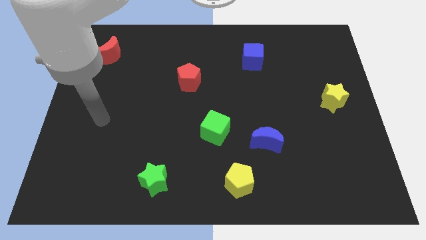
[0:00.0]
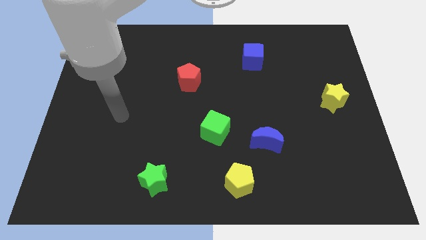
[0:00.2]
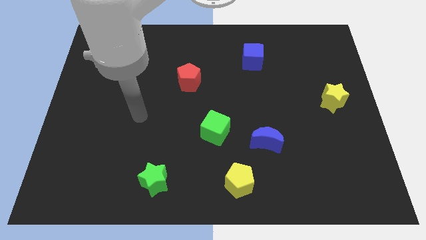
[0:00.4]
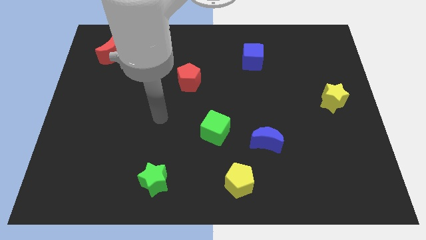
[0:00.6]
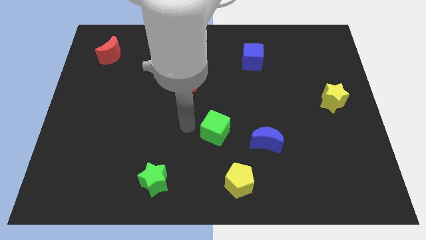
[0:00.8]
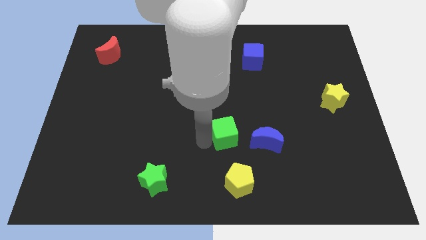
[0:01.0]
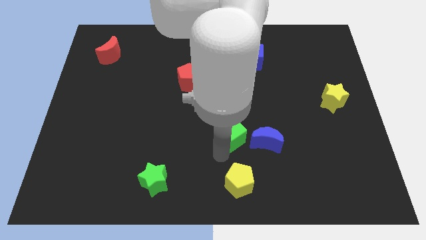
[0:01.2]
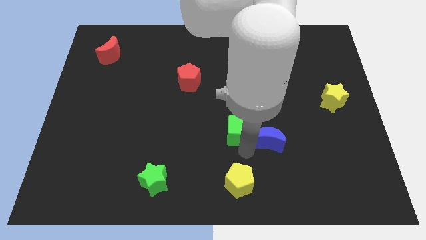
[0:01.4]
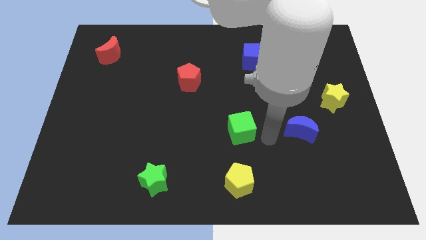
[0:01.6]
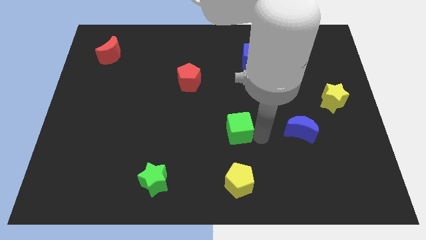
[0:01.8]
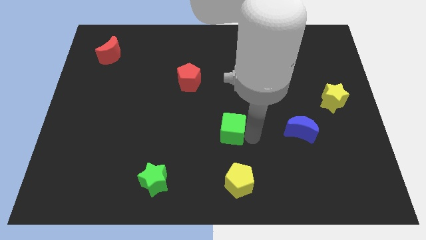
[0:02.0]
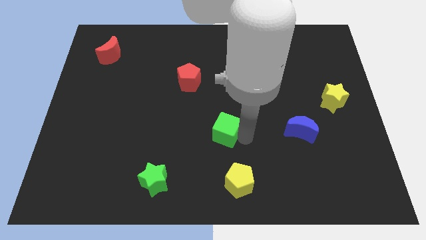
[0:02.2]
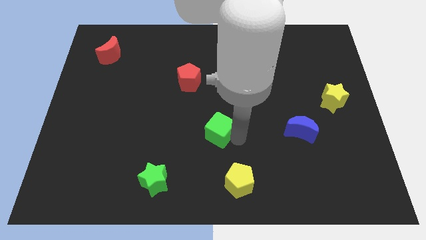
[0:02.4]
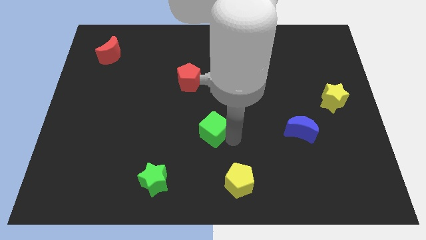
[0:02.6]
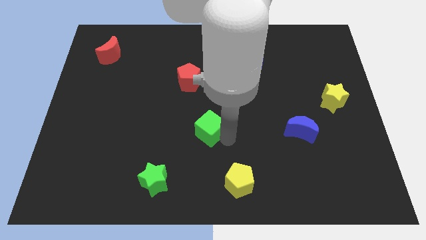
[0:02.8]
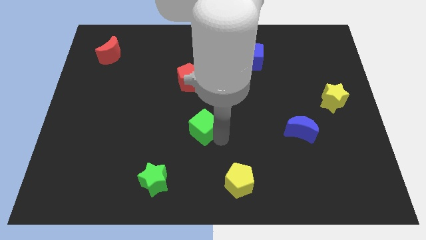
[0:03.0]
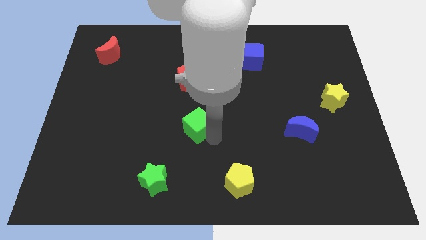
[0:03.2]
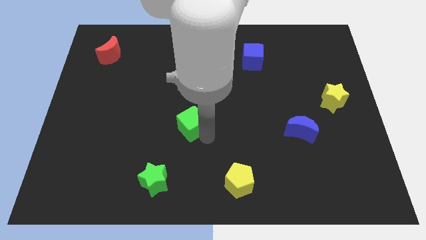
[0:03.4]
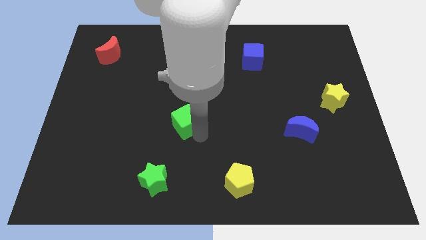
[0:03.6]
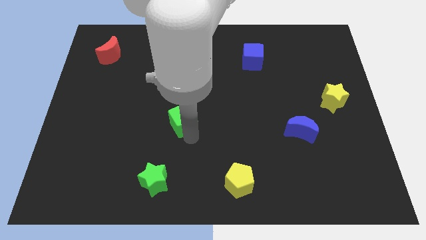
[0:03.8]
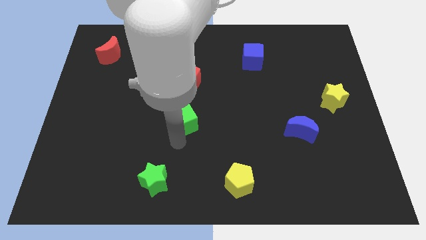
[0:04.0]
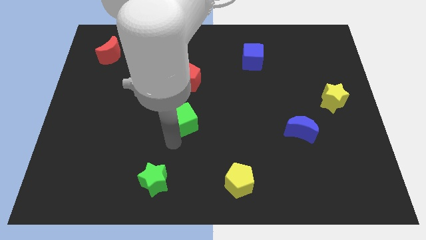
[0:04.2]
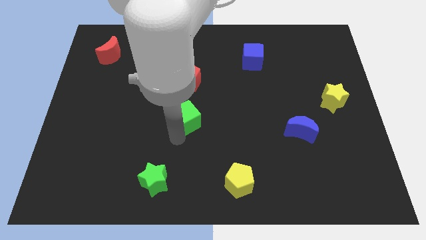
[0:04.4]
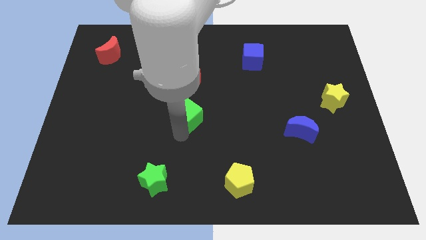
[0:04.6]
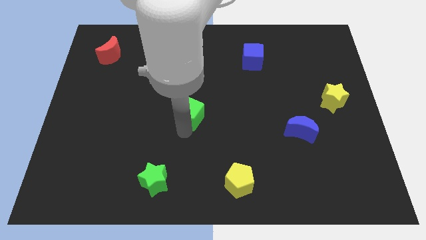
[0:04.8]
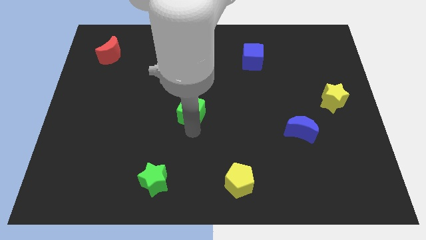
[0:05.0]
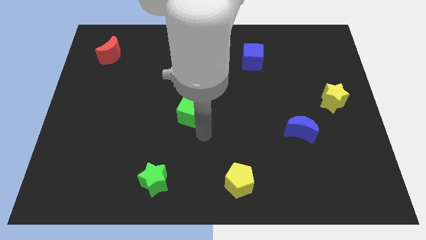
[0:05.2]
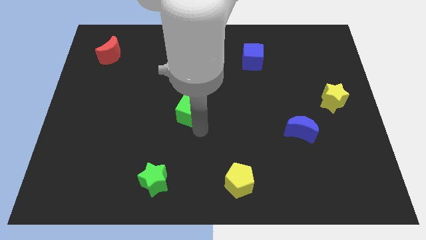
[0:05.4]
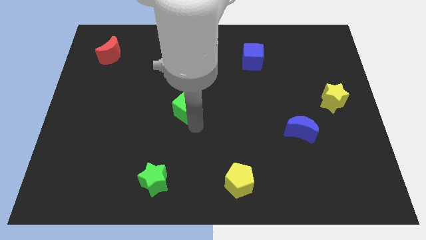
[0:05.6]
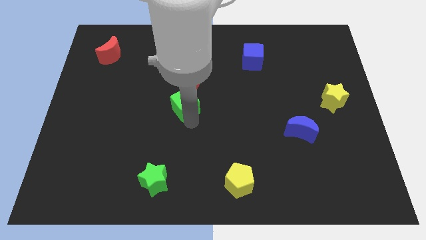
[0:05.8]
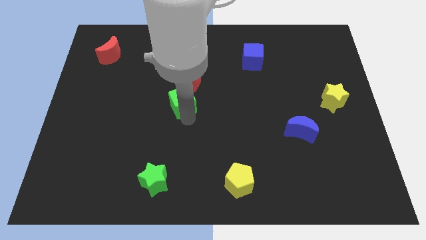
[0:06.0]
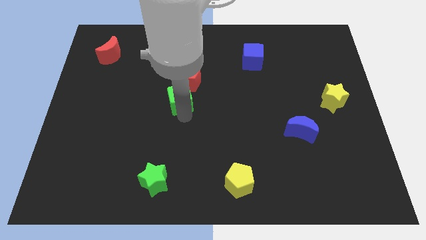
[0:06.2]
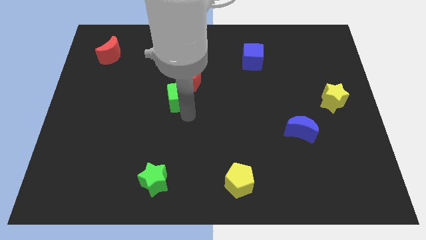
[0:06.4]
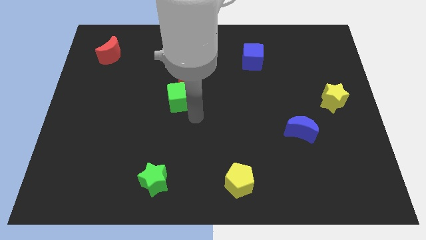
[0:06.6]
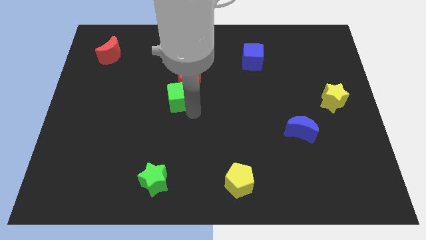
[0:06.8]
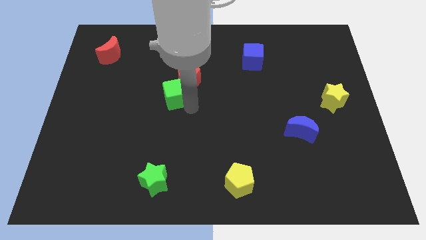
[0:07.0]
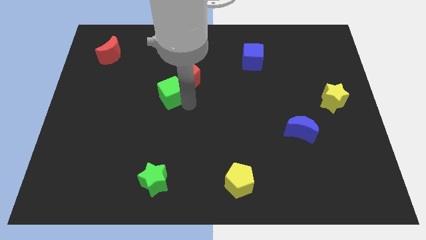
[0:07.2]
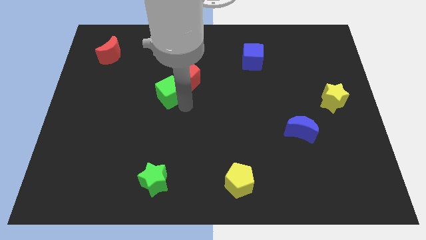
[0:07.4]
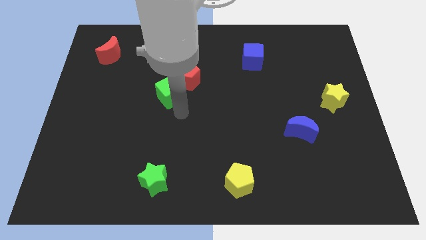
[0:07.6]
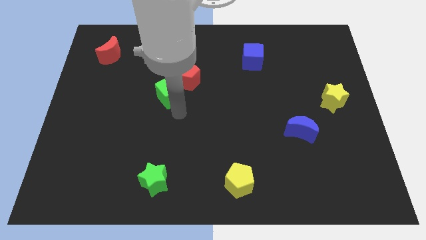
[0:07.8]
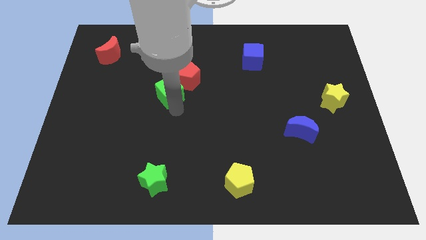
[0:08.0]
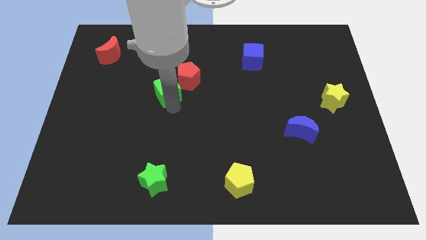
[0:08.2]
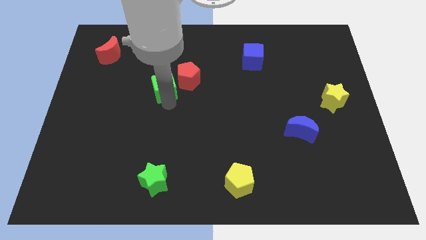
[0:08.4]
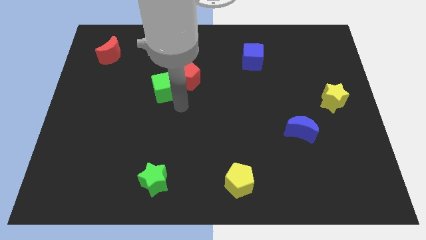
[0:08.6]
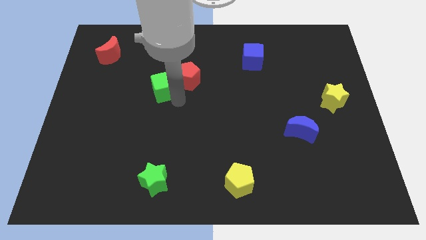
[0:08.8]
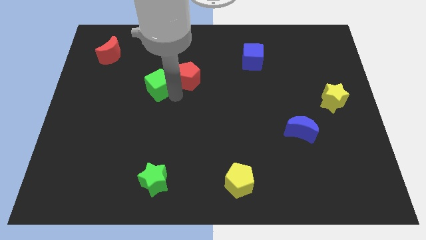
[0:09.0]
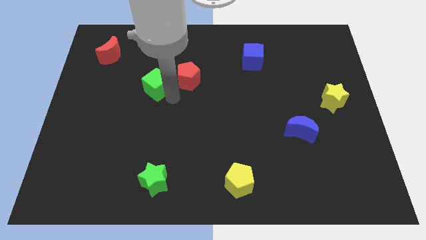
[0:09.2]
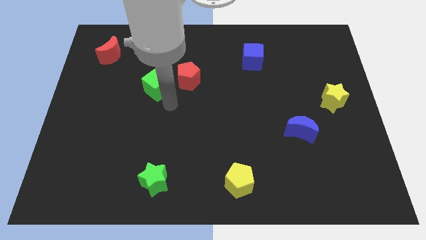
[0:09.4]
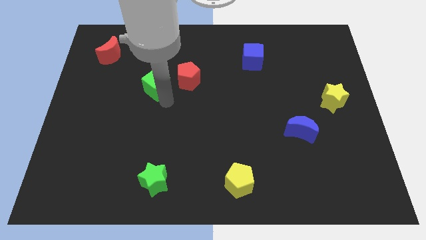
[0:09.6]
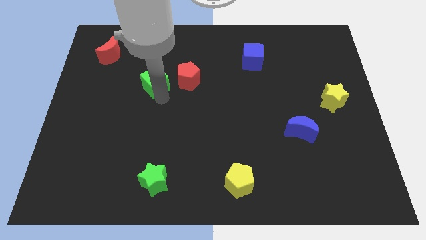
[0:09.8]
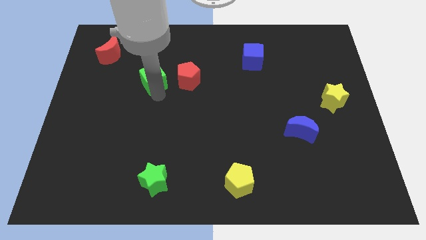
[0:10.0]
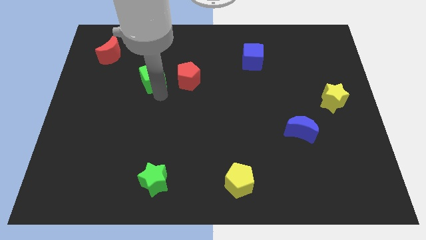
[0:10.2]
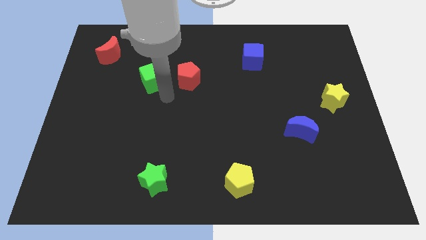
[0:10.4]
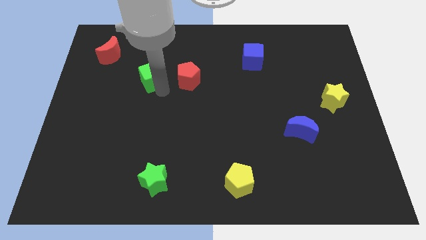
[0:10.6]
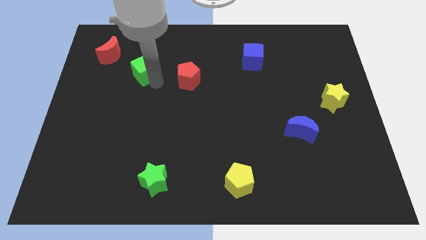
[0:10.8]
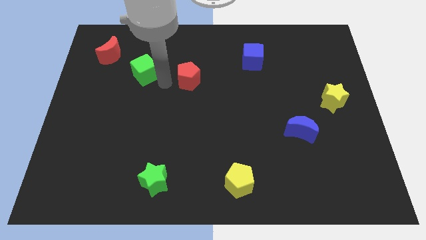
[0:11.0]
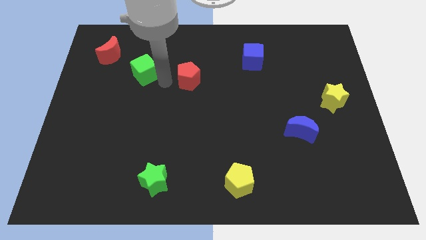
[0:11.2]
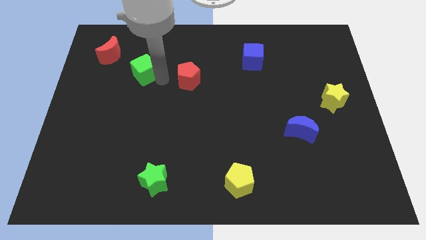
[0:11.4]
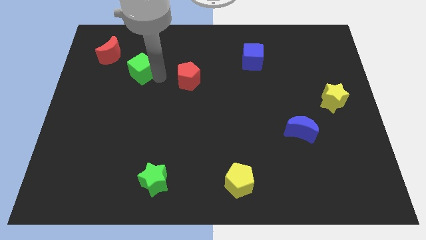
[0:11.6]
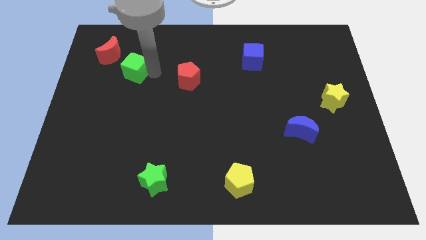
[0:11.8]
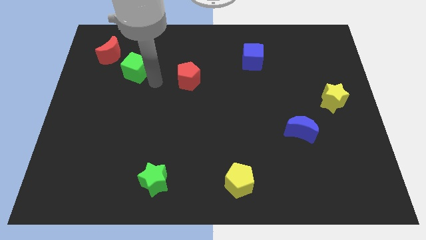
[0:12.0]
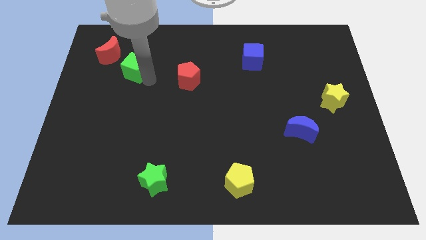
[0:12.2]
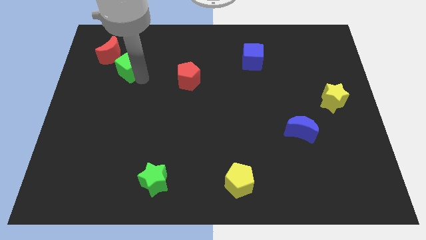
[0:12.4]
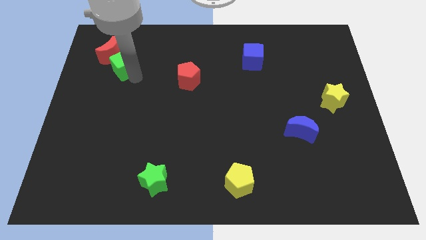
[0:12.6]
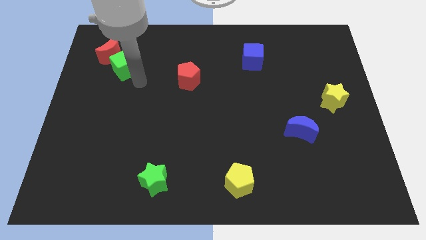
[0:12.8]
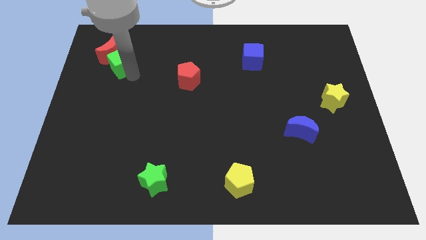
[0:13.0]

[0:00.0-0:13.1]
put the green cube next to the red moon
